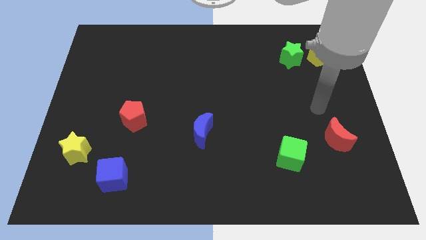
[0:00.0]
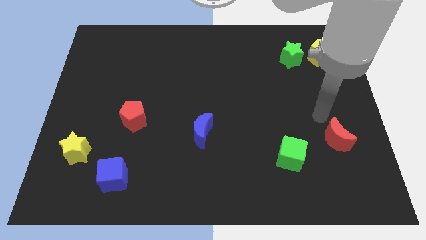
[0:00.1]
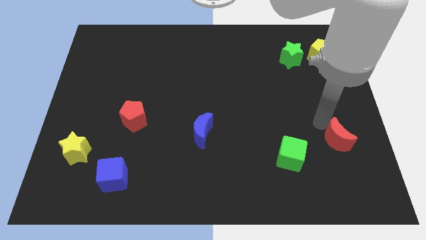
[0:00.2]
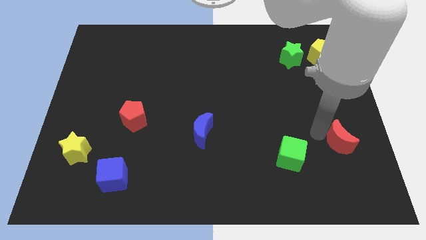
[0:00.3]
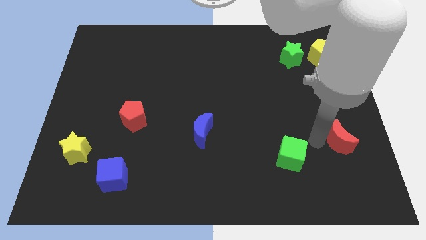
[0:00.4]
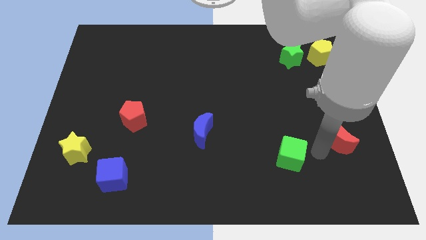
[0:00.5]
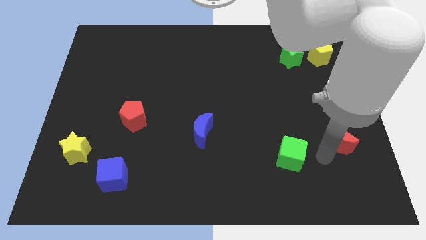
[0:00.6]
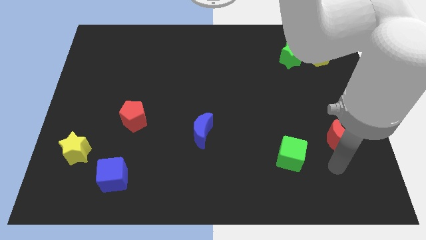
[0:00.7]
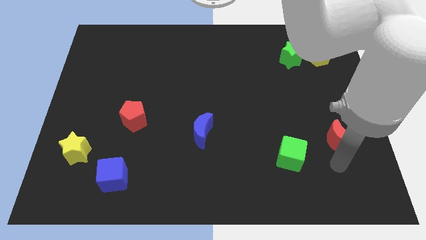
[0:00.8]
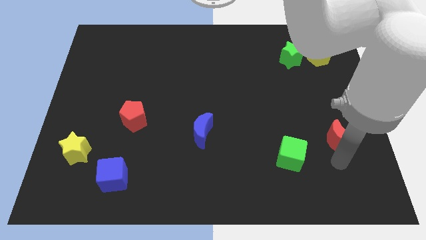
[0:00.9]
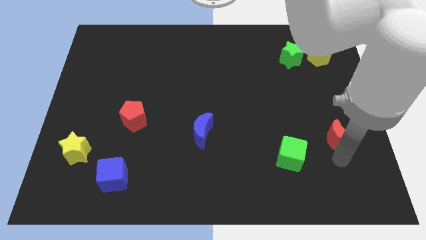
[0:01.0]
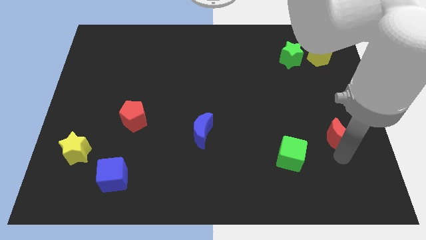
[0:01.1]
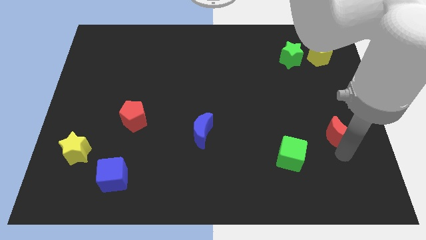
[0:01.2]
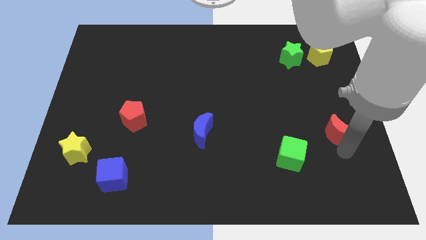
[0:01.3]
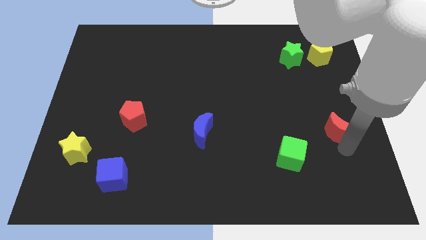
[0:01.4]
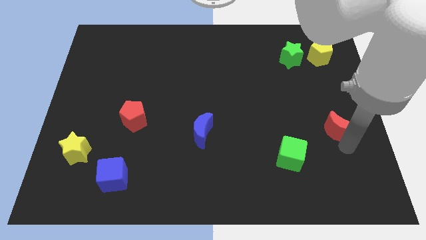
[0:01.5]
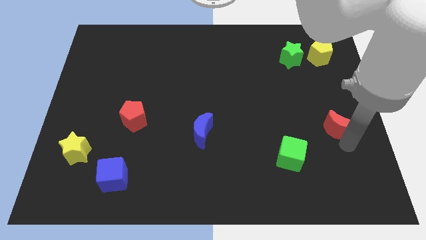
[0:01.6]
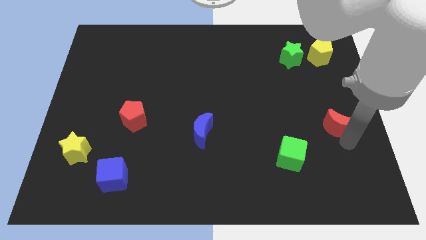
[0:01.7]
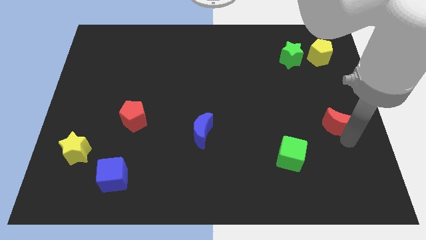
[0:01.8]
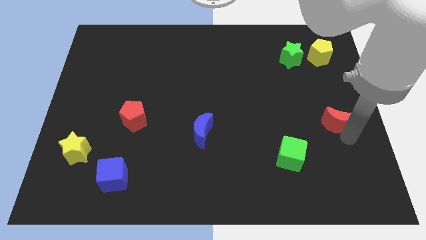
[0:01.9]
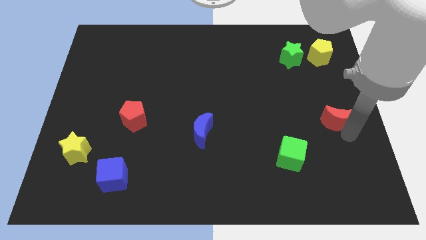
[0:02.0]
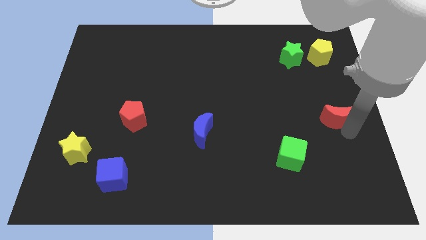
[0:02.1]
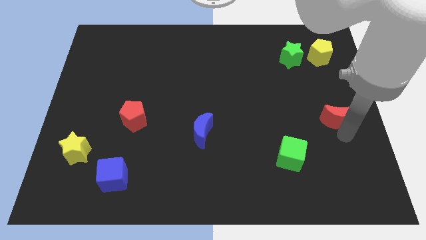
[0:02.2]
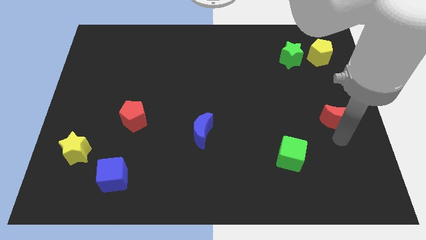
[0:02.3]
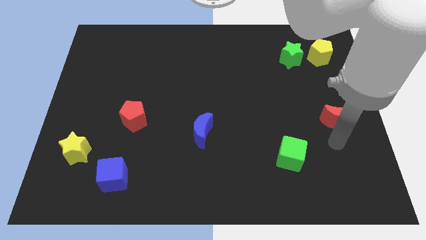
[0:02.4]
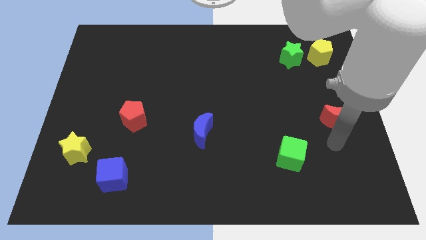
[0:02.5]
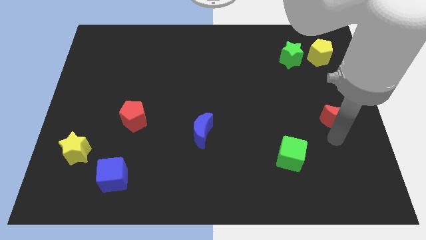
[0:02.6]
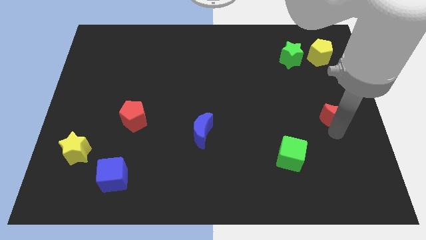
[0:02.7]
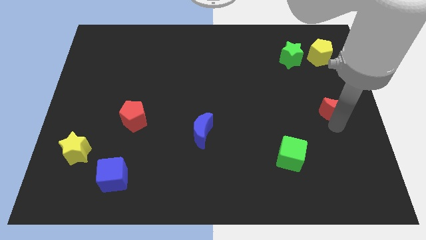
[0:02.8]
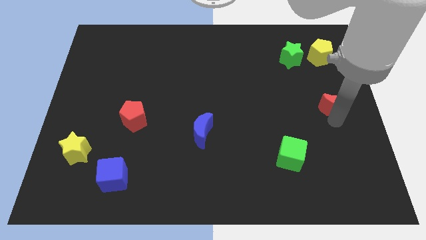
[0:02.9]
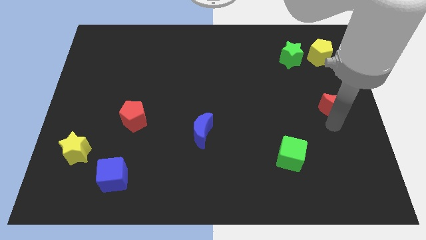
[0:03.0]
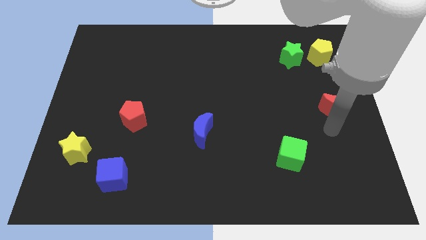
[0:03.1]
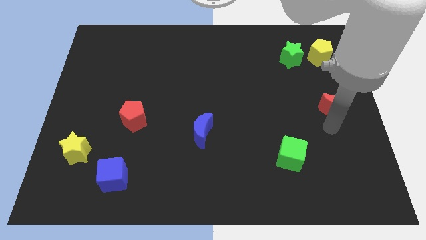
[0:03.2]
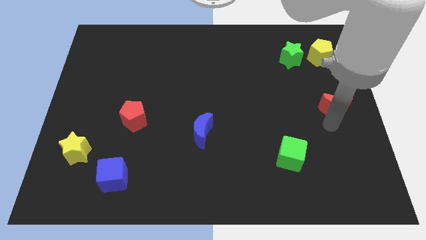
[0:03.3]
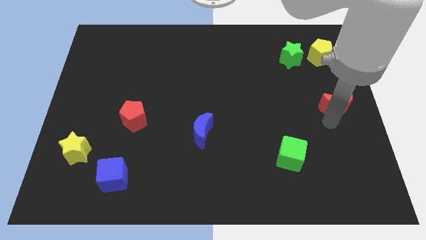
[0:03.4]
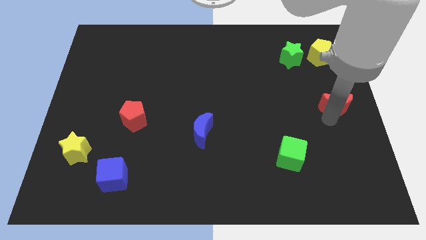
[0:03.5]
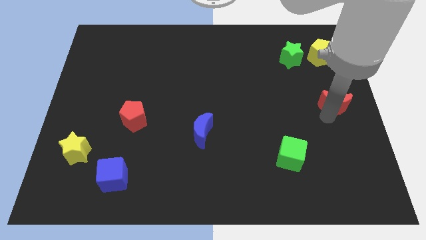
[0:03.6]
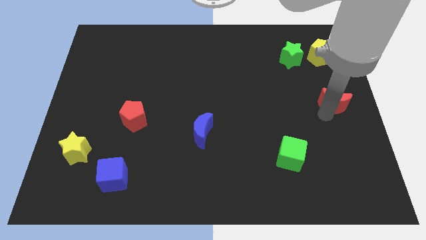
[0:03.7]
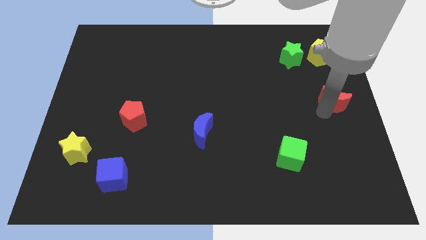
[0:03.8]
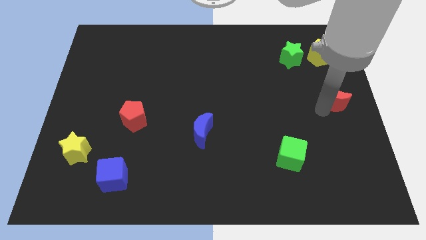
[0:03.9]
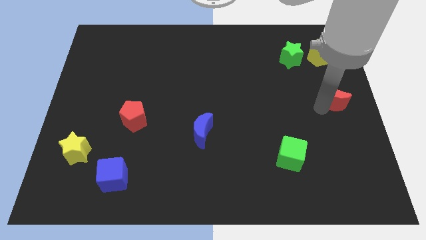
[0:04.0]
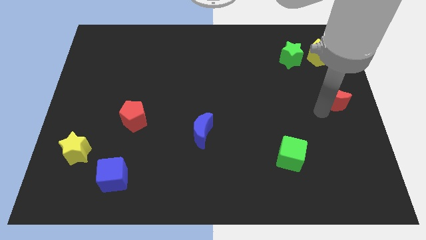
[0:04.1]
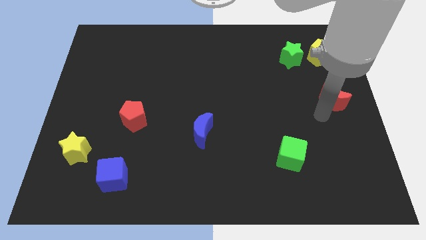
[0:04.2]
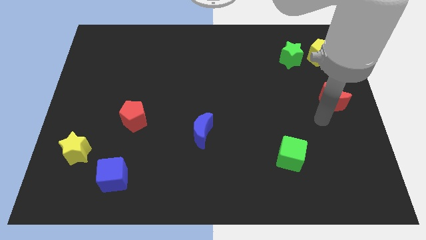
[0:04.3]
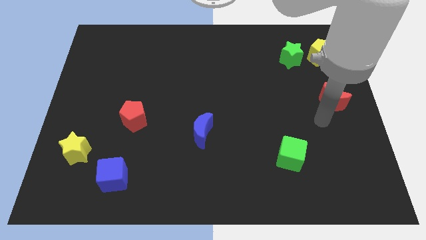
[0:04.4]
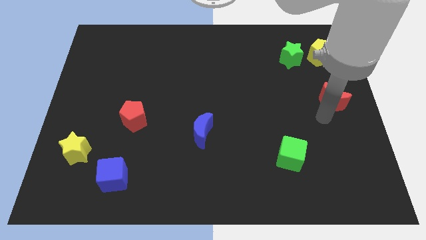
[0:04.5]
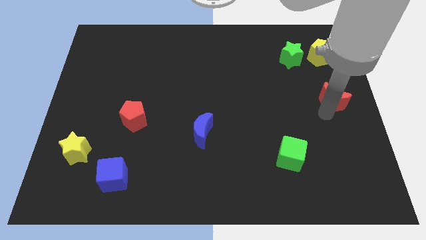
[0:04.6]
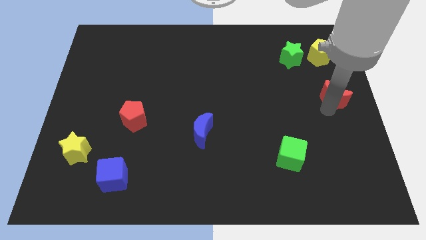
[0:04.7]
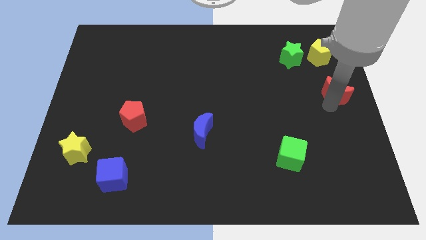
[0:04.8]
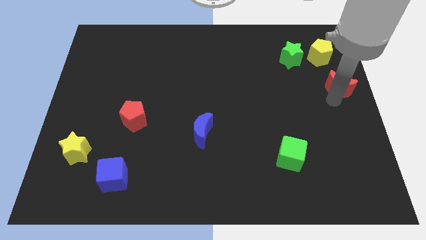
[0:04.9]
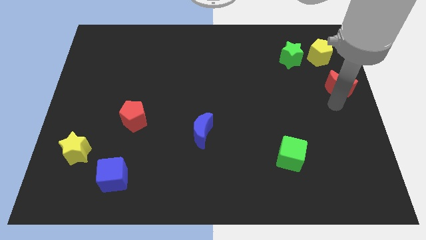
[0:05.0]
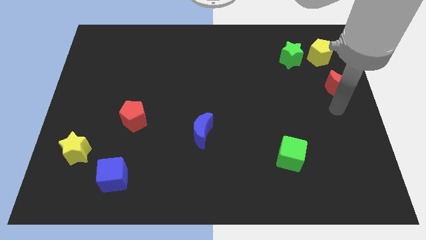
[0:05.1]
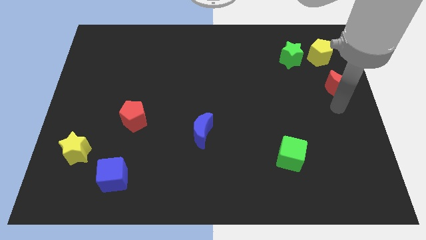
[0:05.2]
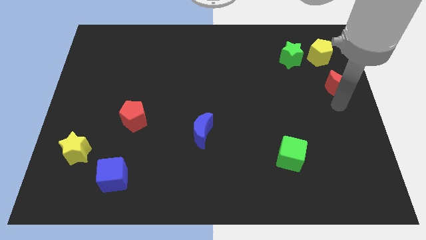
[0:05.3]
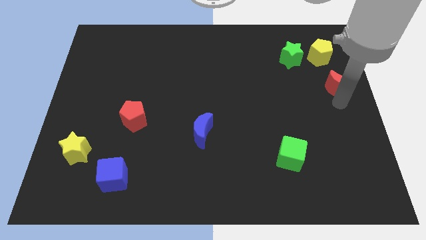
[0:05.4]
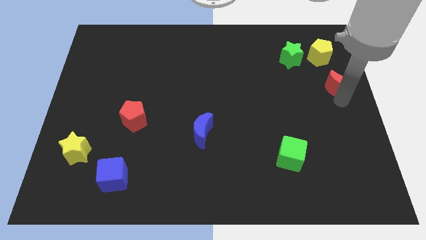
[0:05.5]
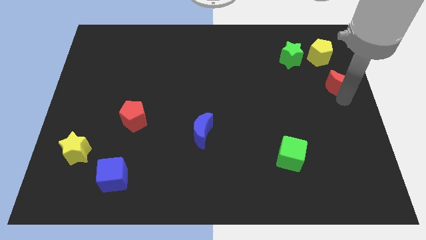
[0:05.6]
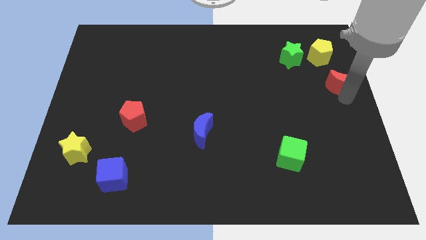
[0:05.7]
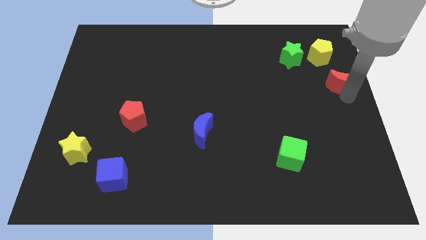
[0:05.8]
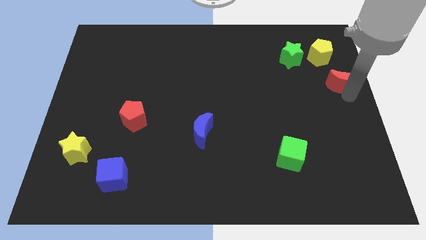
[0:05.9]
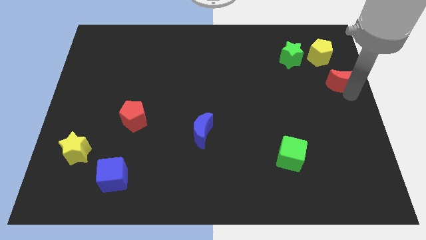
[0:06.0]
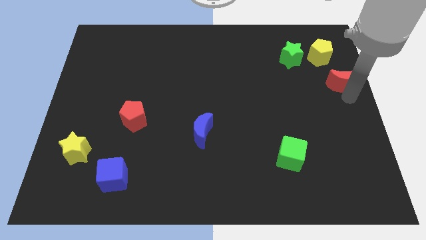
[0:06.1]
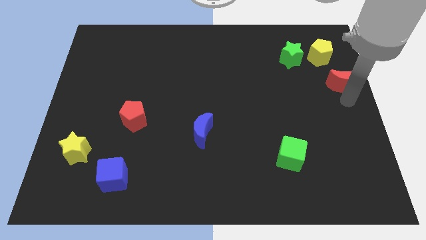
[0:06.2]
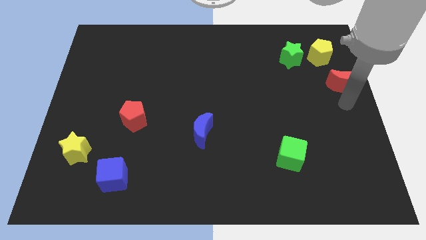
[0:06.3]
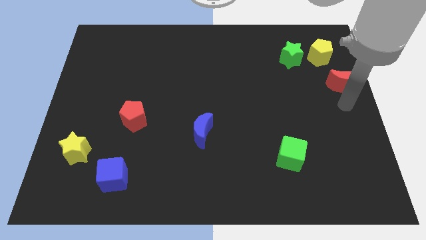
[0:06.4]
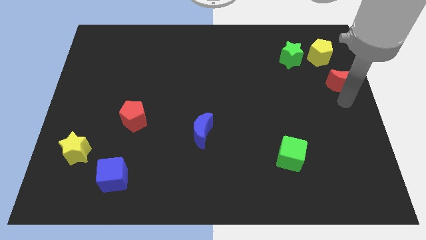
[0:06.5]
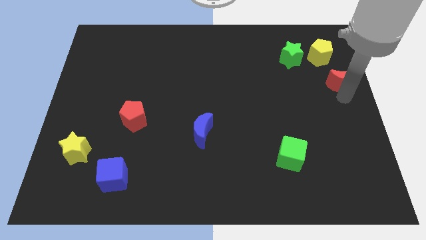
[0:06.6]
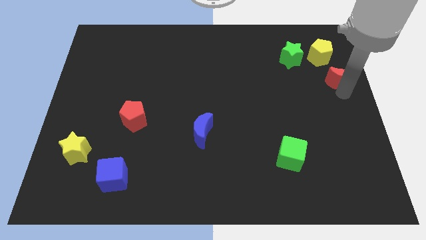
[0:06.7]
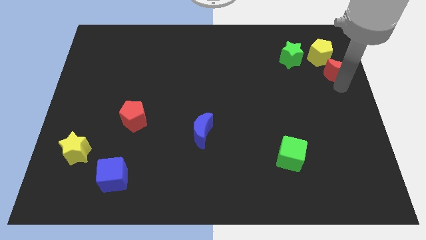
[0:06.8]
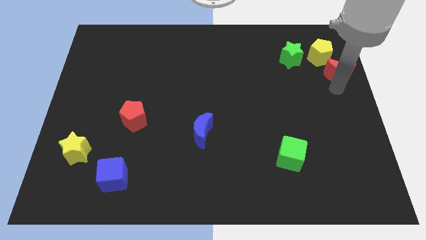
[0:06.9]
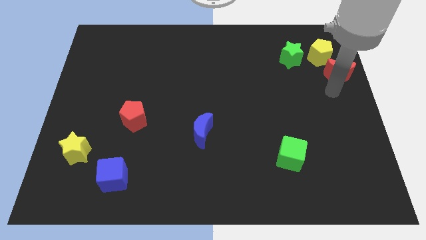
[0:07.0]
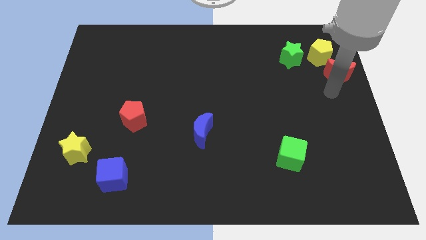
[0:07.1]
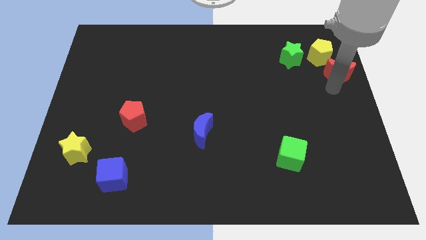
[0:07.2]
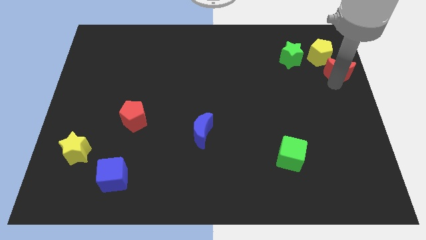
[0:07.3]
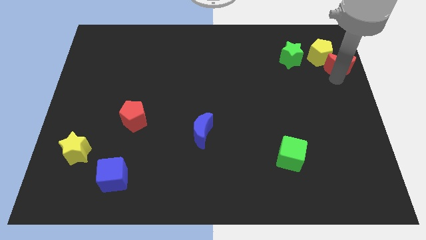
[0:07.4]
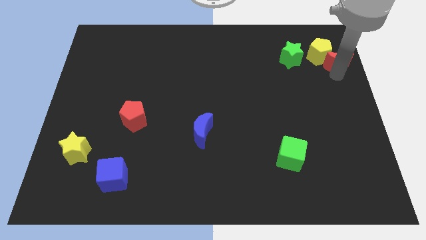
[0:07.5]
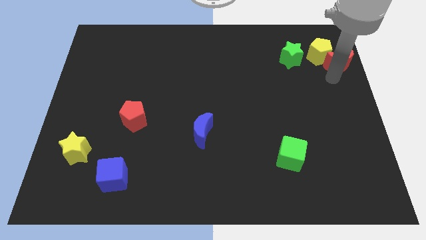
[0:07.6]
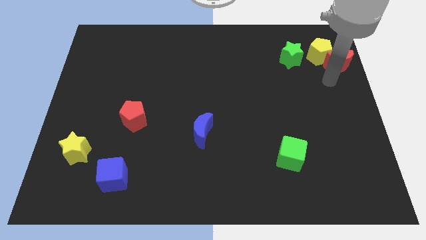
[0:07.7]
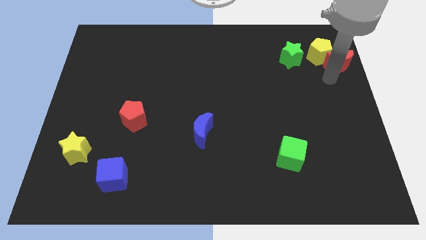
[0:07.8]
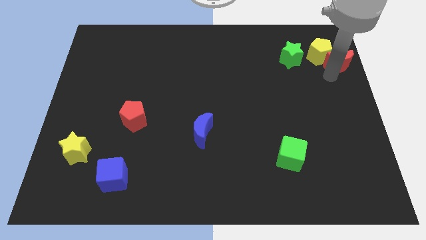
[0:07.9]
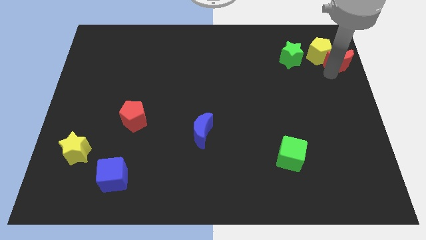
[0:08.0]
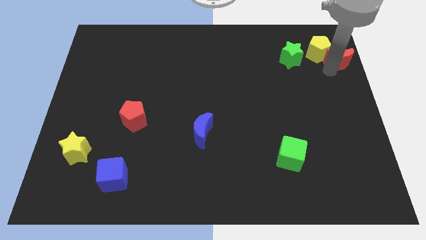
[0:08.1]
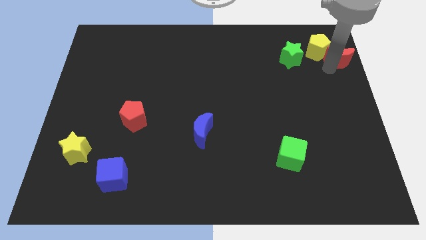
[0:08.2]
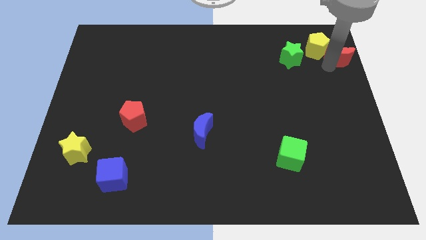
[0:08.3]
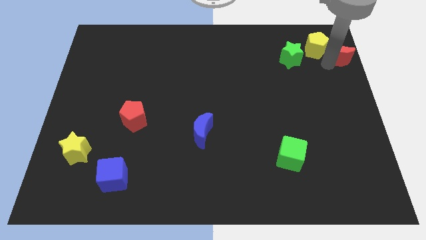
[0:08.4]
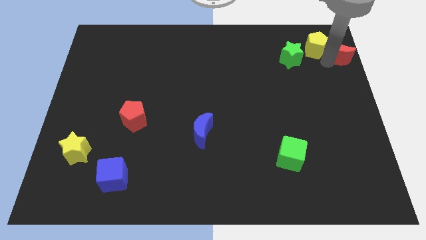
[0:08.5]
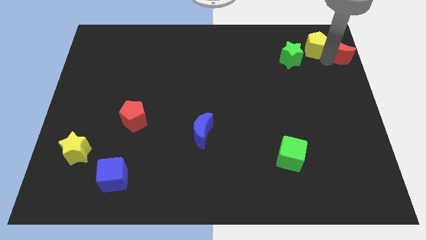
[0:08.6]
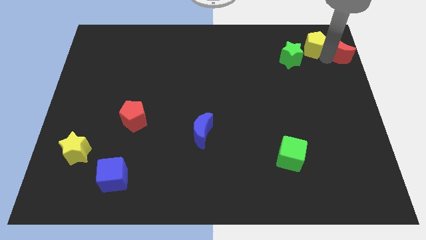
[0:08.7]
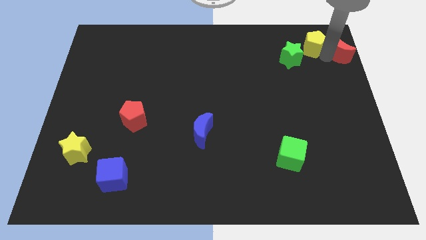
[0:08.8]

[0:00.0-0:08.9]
slide the red moon to the upper right corner
